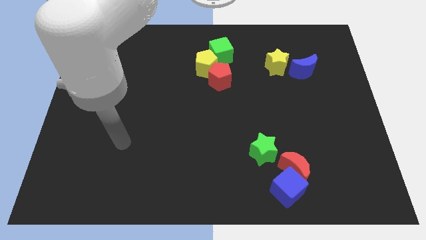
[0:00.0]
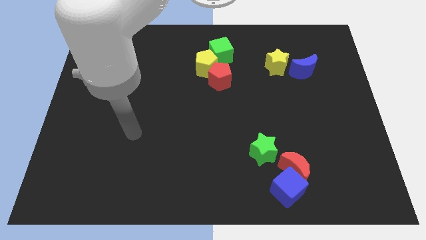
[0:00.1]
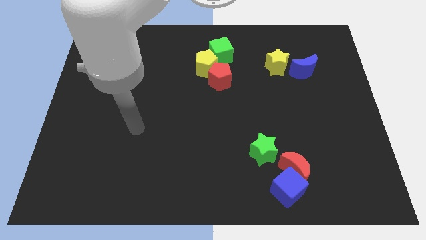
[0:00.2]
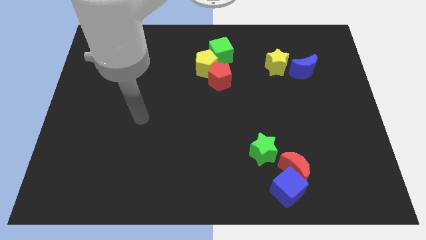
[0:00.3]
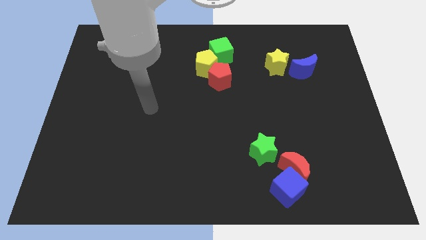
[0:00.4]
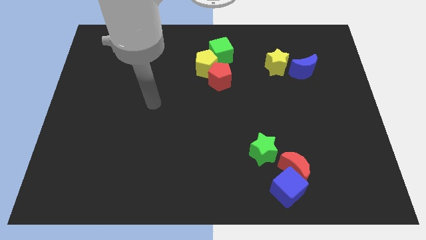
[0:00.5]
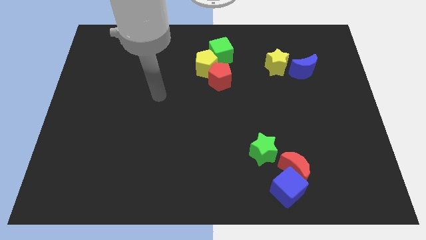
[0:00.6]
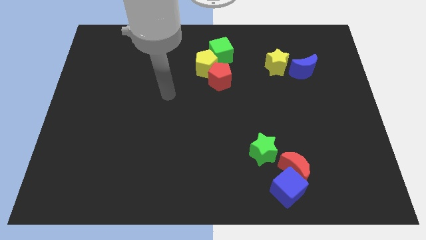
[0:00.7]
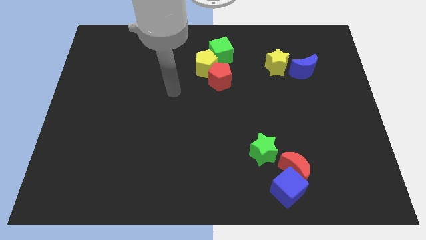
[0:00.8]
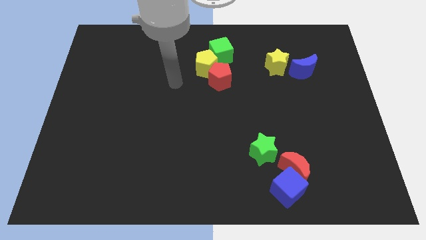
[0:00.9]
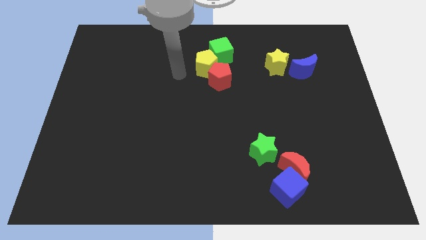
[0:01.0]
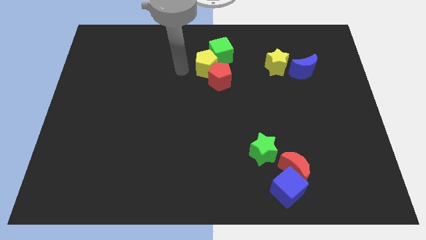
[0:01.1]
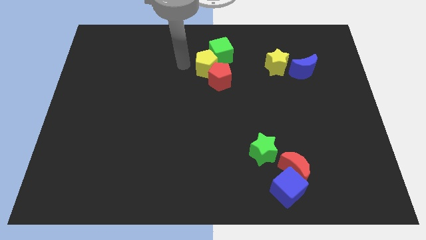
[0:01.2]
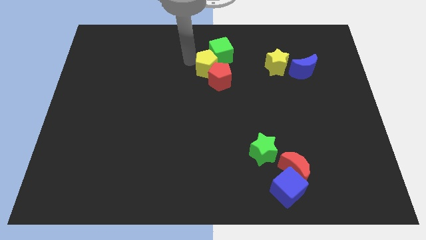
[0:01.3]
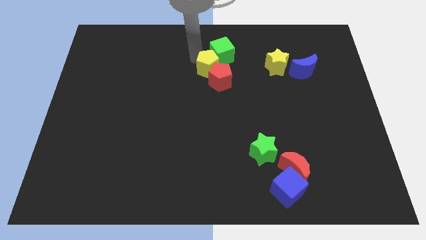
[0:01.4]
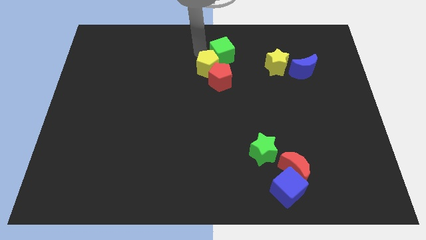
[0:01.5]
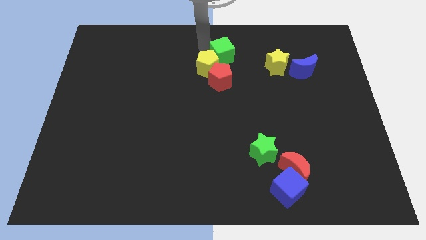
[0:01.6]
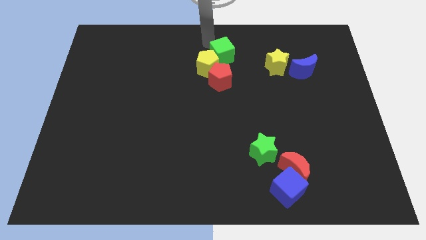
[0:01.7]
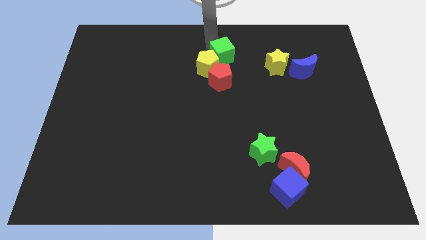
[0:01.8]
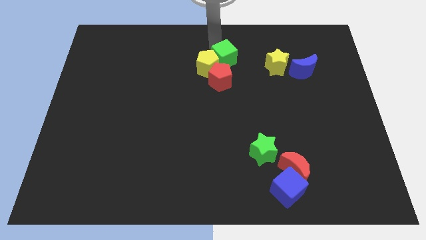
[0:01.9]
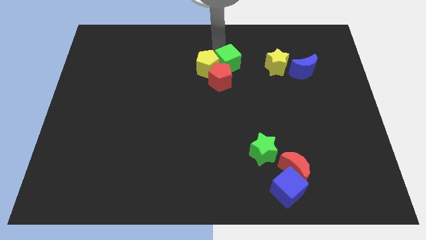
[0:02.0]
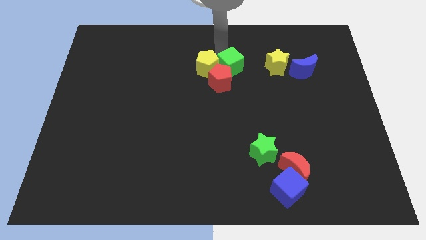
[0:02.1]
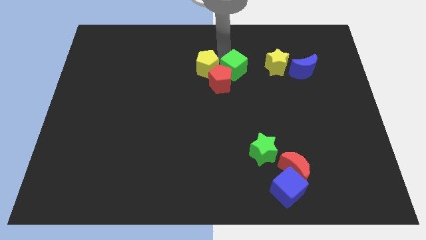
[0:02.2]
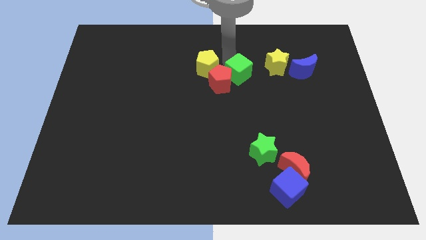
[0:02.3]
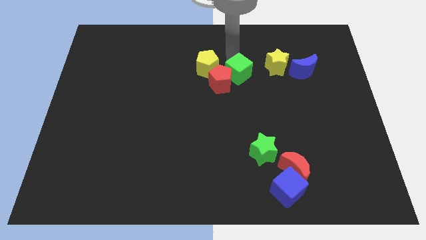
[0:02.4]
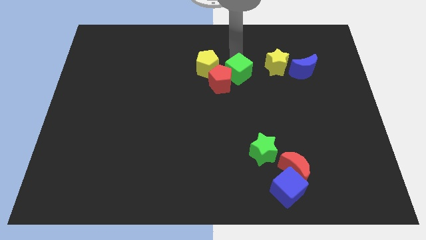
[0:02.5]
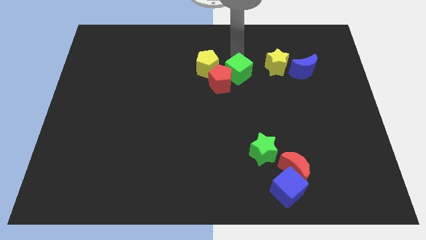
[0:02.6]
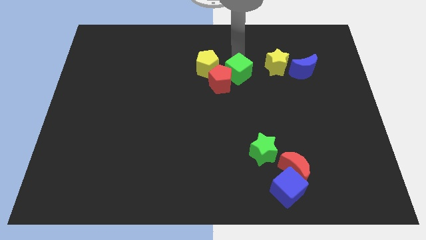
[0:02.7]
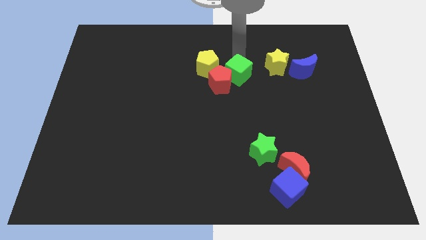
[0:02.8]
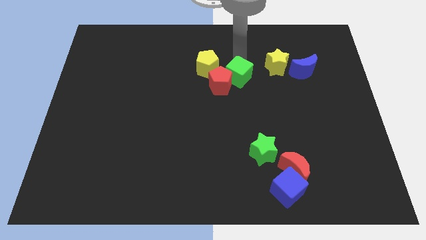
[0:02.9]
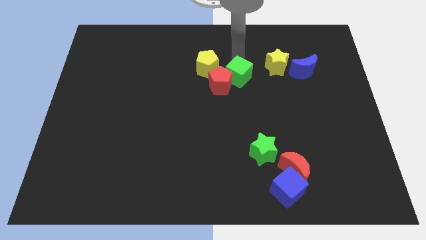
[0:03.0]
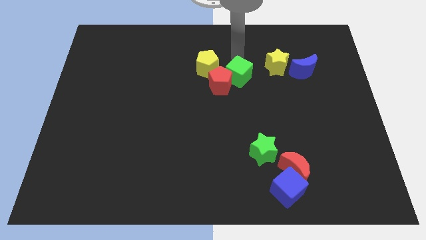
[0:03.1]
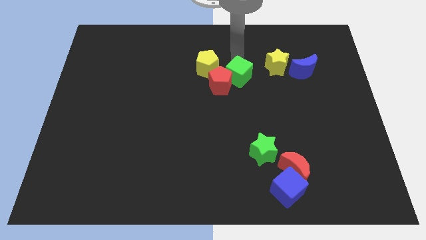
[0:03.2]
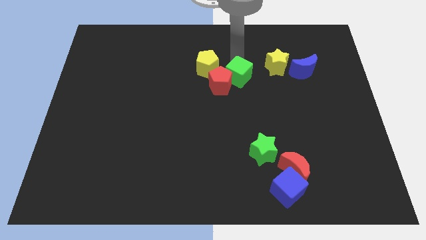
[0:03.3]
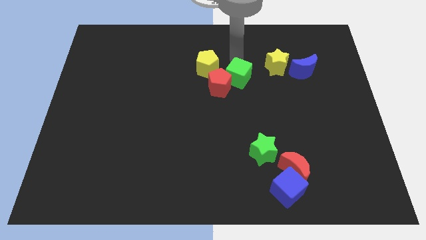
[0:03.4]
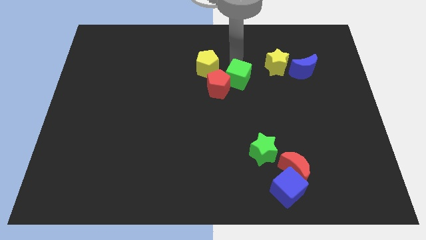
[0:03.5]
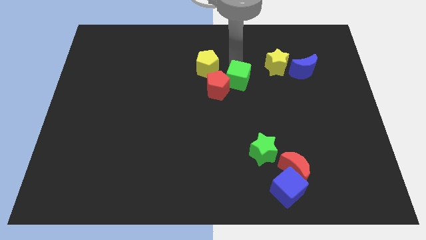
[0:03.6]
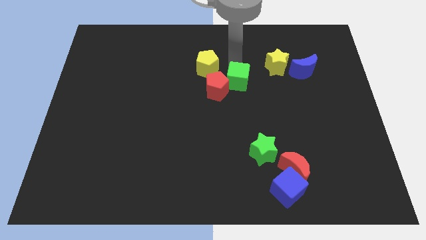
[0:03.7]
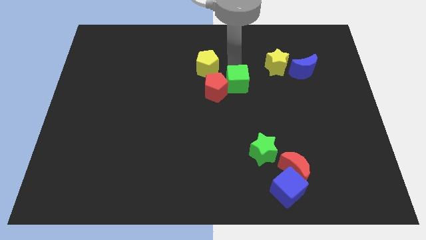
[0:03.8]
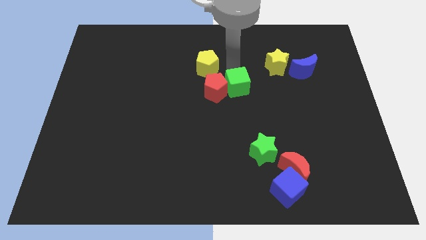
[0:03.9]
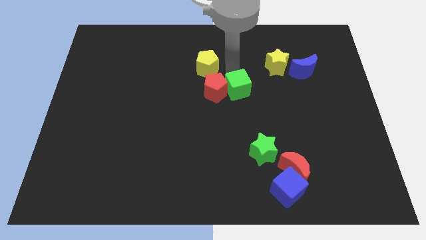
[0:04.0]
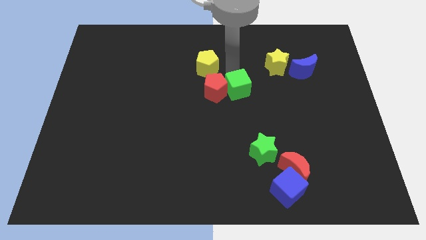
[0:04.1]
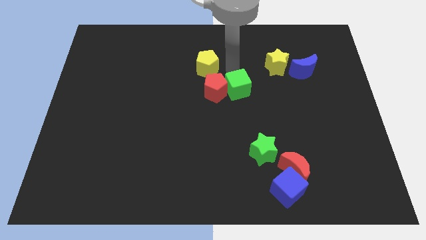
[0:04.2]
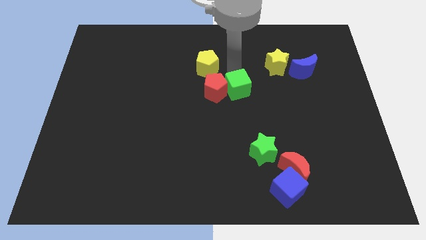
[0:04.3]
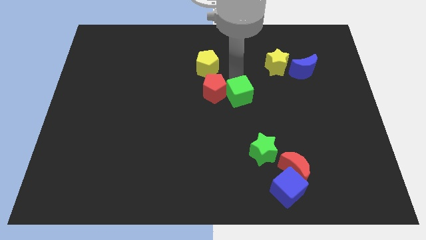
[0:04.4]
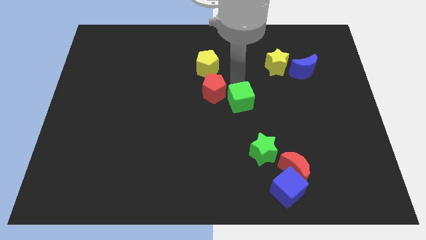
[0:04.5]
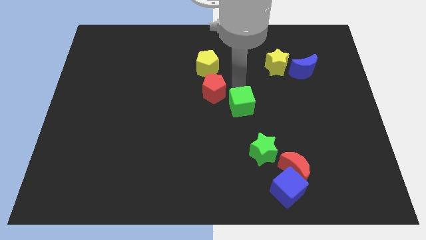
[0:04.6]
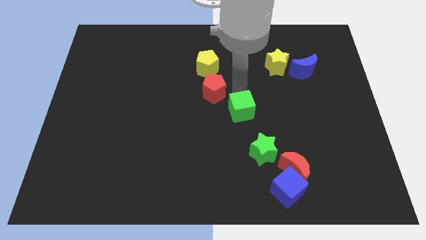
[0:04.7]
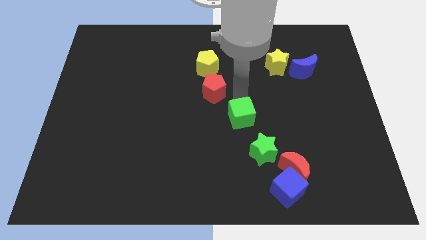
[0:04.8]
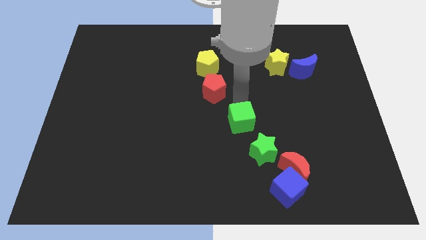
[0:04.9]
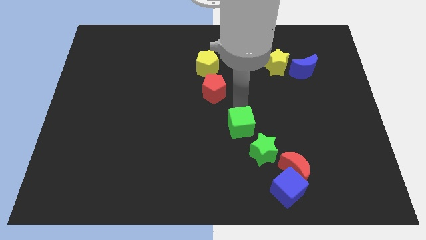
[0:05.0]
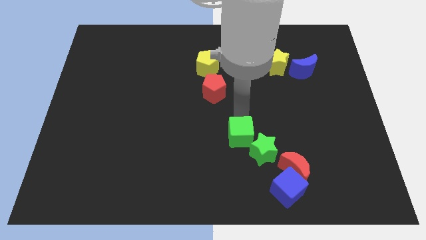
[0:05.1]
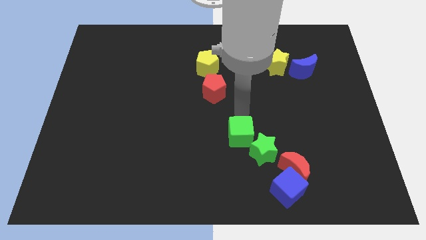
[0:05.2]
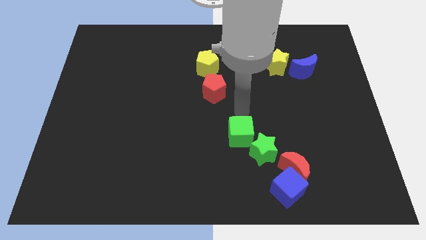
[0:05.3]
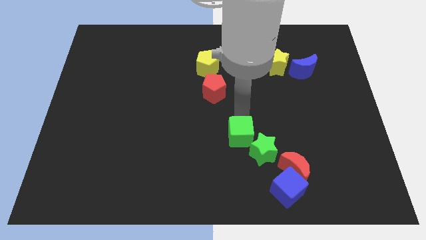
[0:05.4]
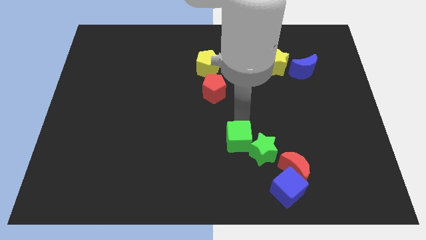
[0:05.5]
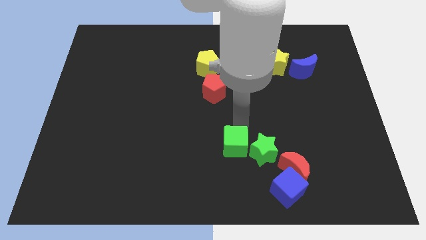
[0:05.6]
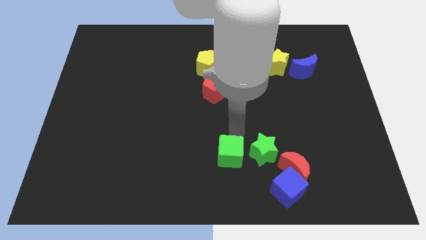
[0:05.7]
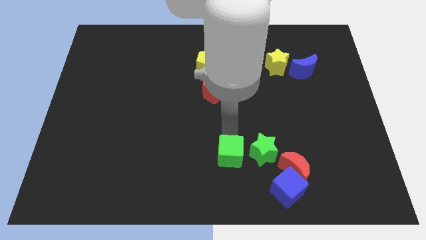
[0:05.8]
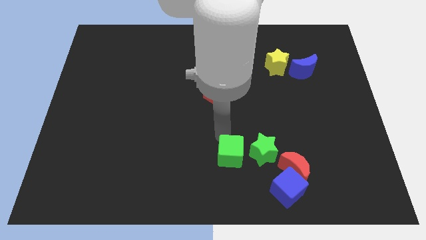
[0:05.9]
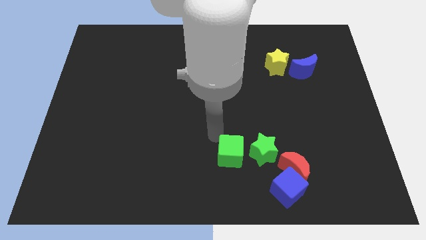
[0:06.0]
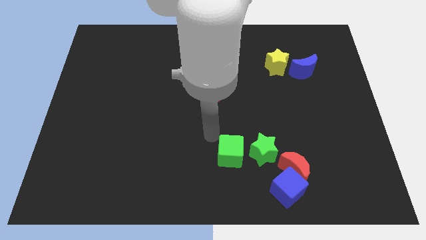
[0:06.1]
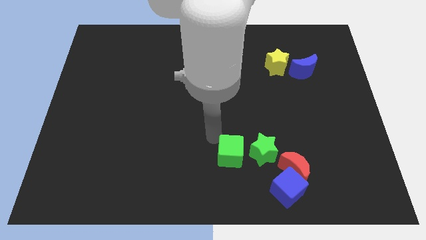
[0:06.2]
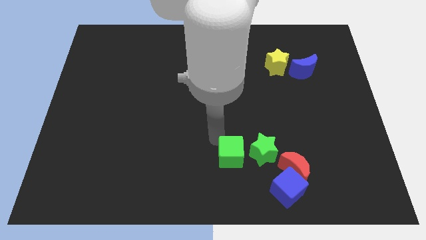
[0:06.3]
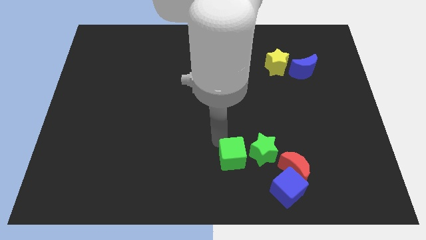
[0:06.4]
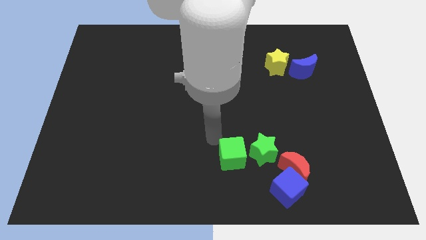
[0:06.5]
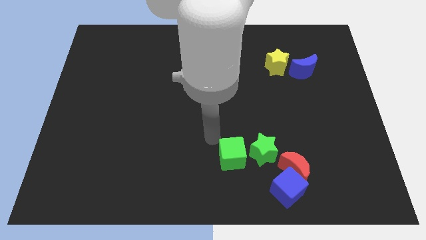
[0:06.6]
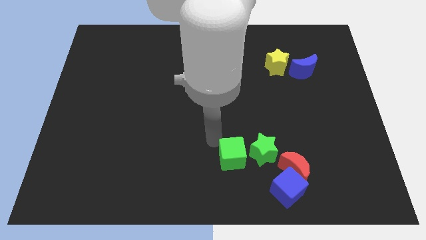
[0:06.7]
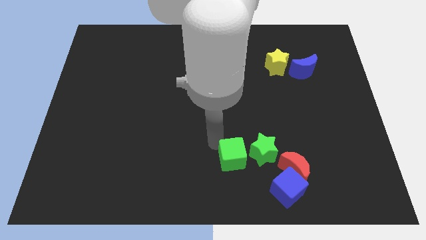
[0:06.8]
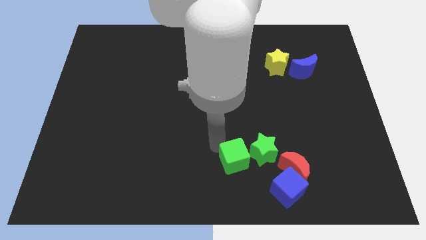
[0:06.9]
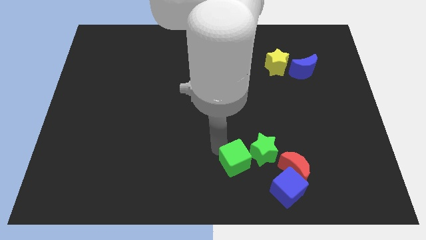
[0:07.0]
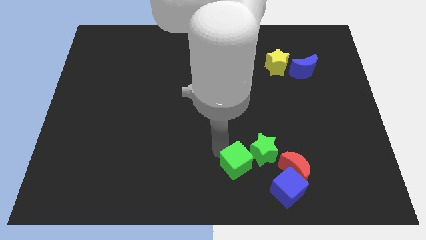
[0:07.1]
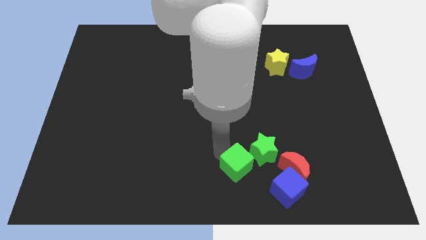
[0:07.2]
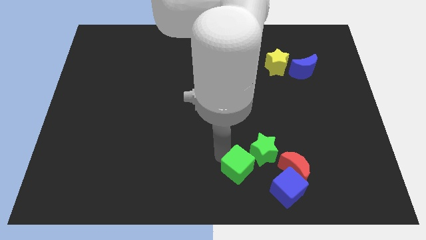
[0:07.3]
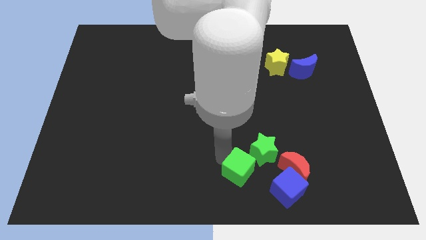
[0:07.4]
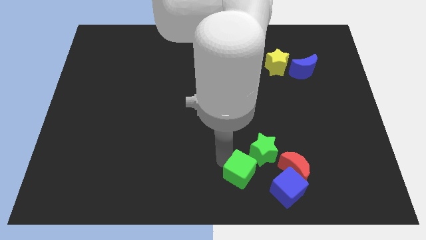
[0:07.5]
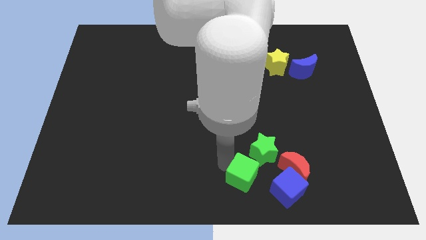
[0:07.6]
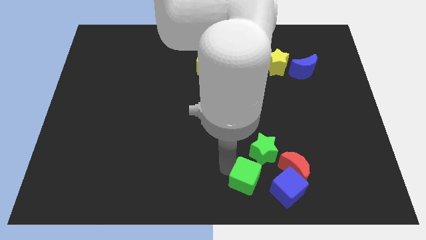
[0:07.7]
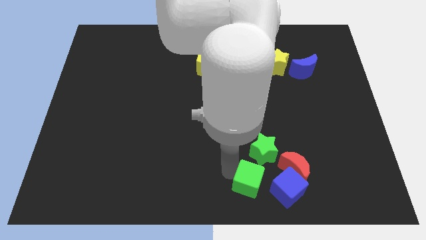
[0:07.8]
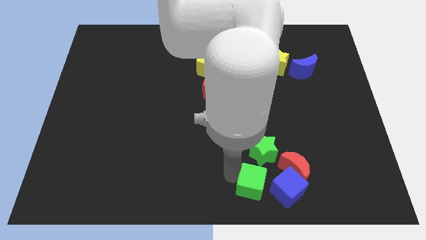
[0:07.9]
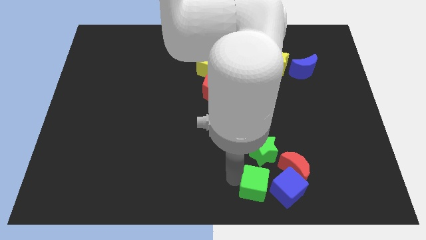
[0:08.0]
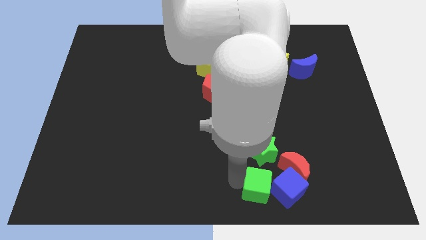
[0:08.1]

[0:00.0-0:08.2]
push the green cube towards the blue cube

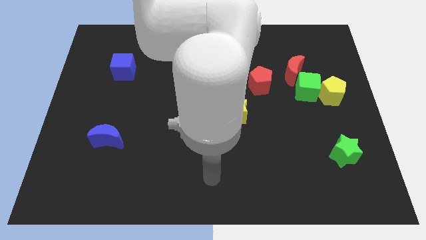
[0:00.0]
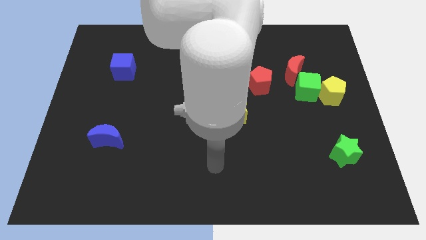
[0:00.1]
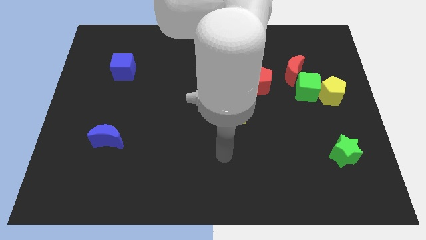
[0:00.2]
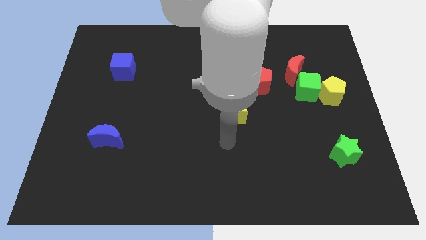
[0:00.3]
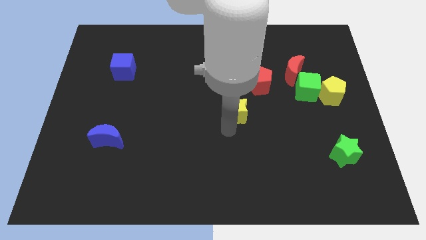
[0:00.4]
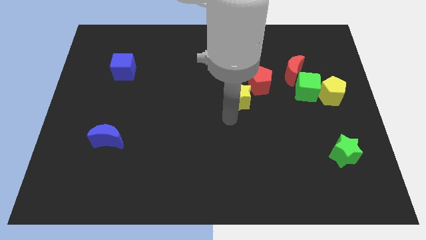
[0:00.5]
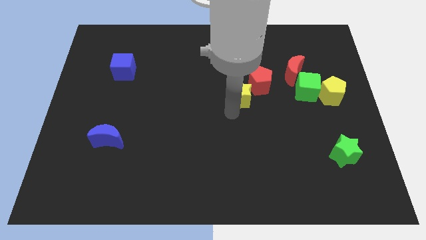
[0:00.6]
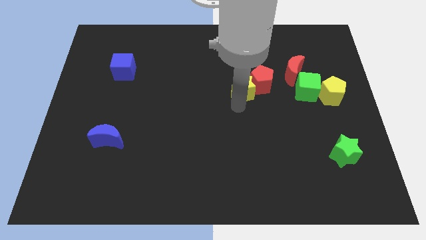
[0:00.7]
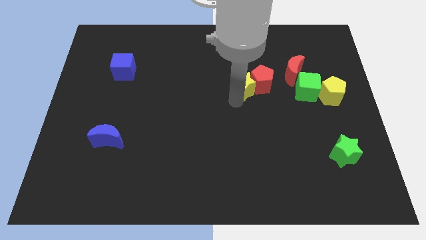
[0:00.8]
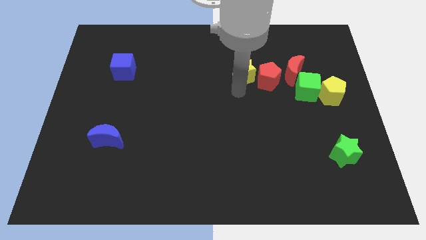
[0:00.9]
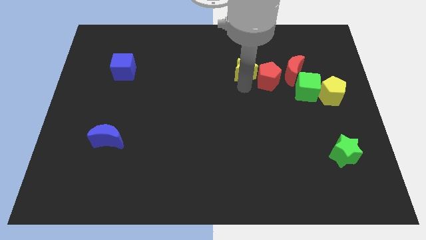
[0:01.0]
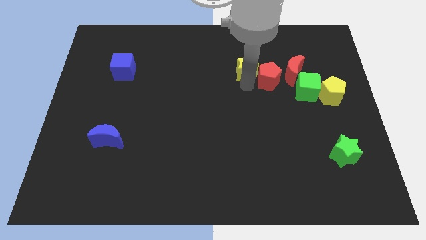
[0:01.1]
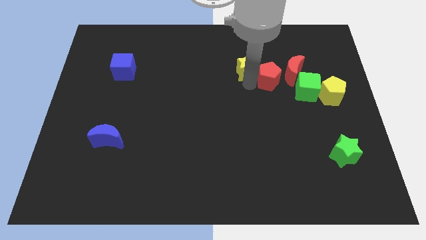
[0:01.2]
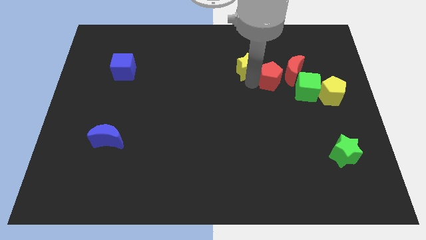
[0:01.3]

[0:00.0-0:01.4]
slide the red pentagon to the red moon
